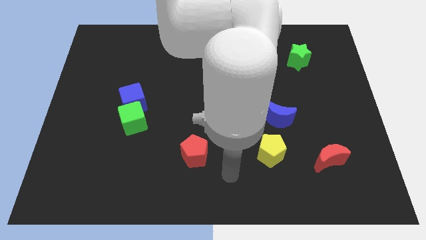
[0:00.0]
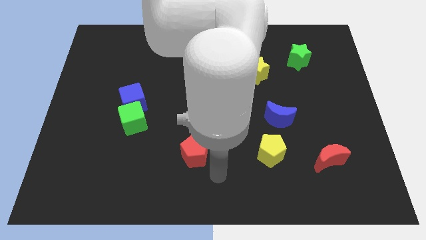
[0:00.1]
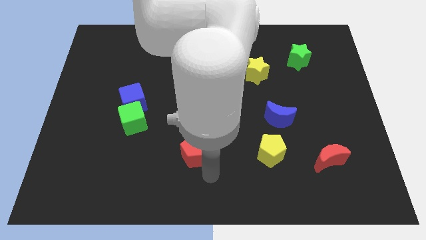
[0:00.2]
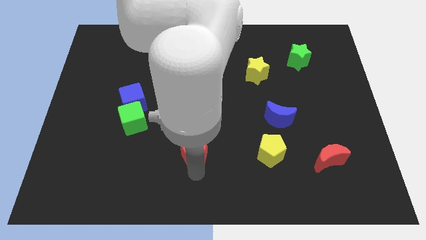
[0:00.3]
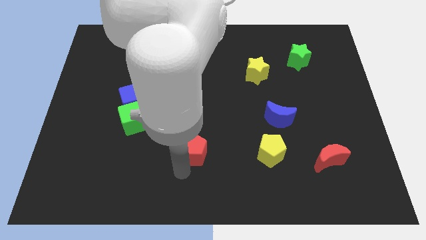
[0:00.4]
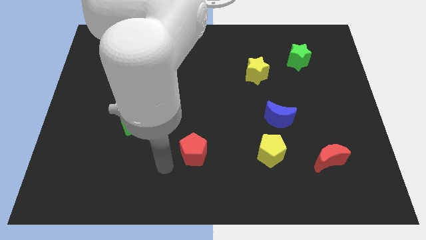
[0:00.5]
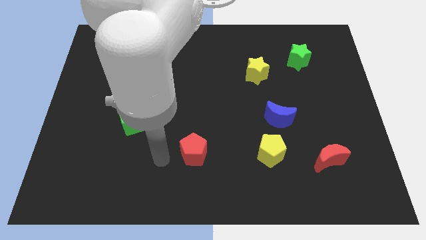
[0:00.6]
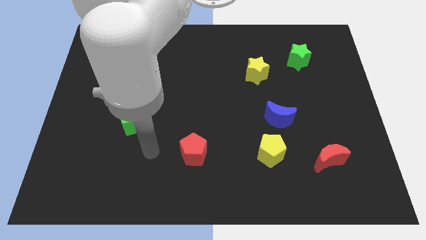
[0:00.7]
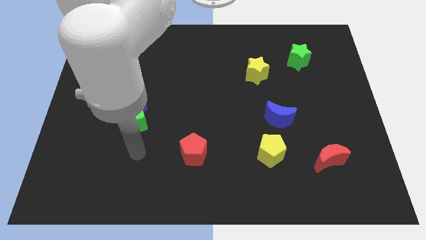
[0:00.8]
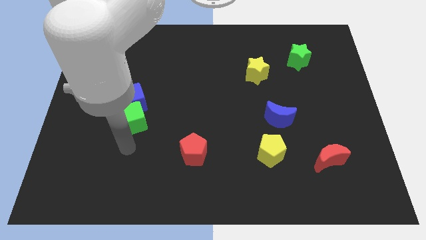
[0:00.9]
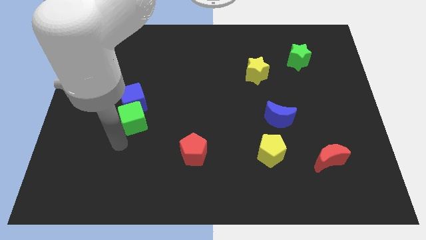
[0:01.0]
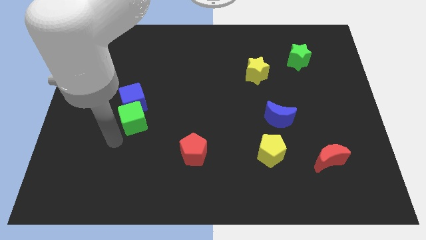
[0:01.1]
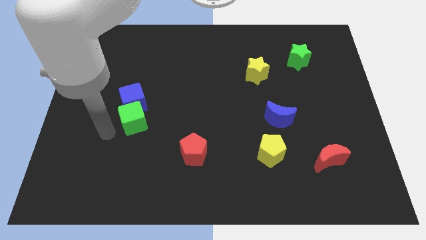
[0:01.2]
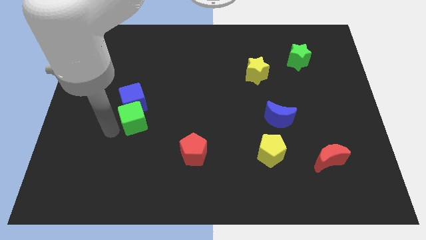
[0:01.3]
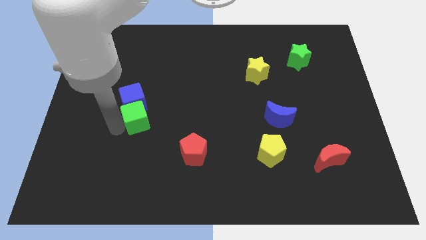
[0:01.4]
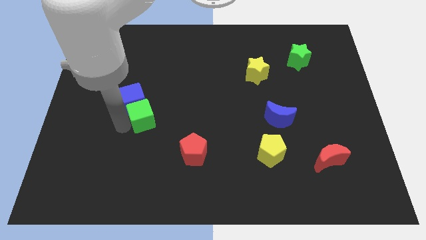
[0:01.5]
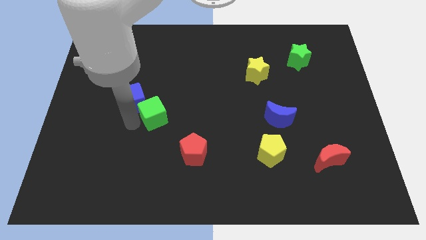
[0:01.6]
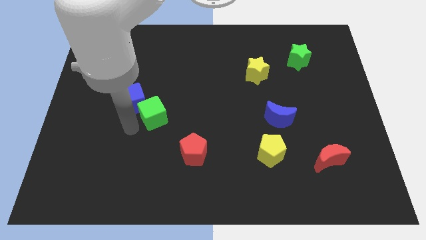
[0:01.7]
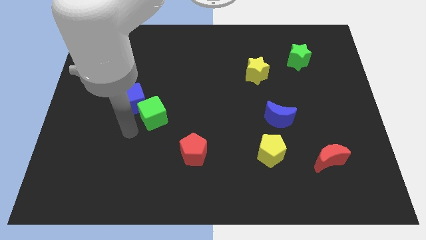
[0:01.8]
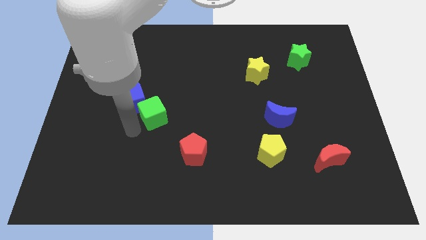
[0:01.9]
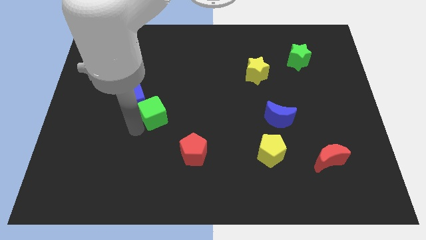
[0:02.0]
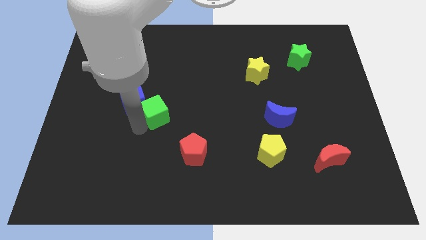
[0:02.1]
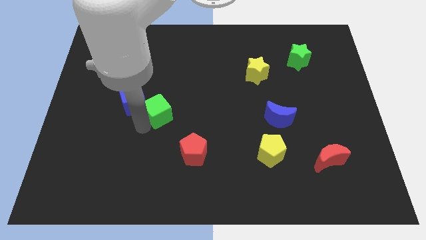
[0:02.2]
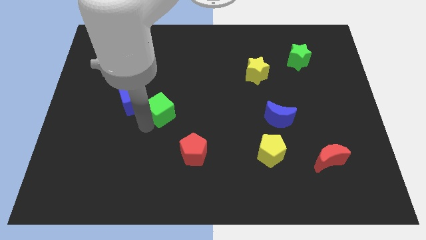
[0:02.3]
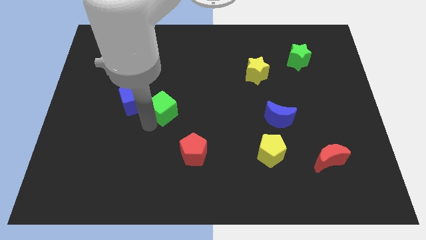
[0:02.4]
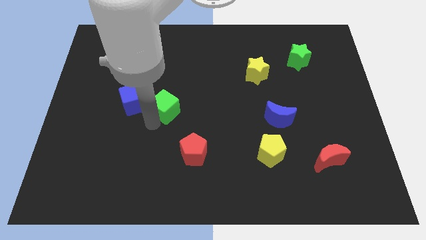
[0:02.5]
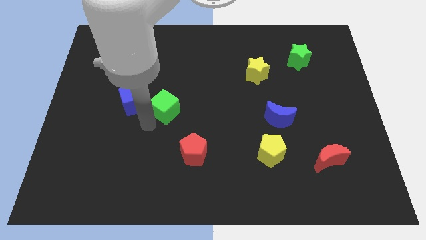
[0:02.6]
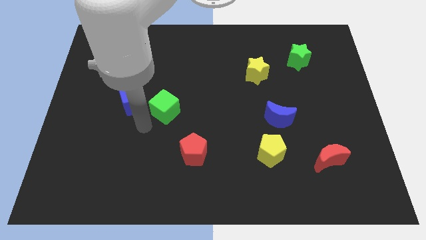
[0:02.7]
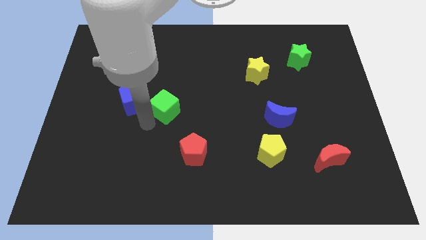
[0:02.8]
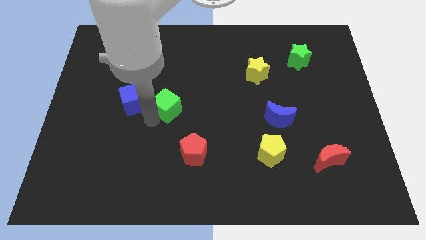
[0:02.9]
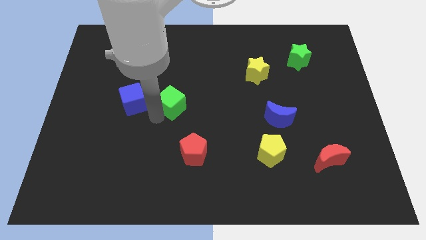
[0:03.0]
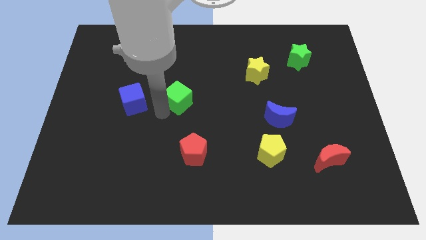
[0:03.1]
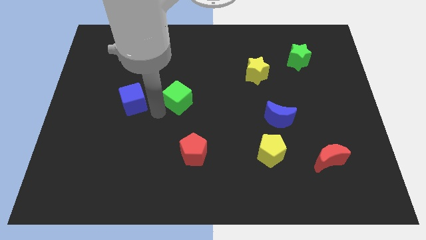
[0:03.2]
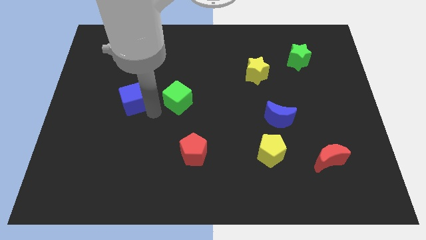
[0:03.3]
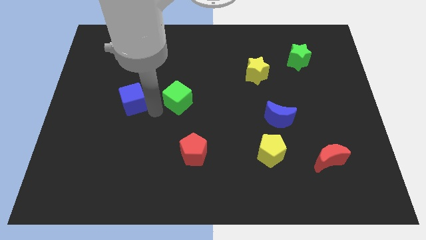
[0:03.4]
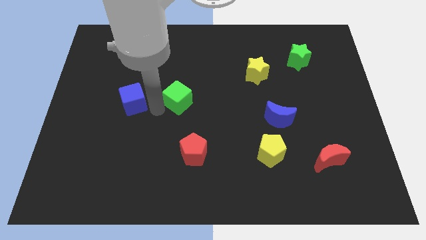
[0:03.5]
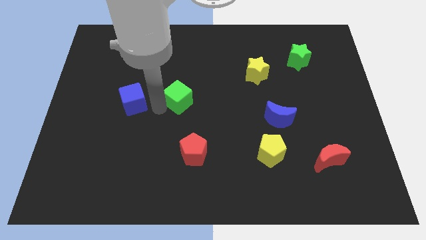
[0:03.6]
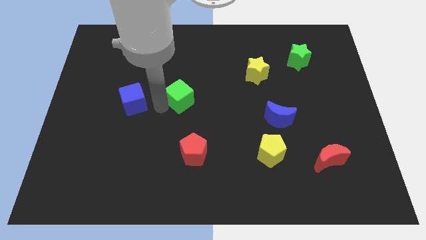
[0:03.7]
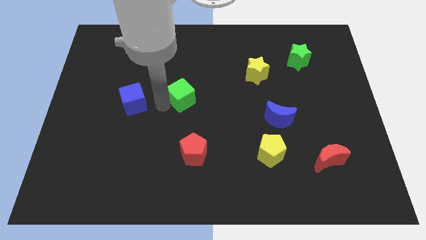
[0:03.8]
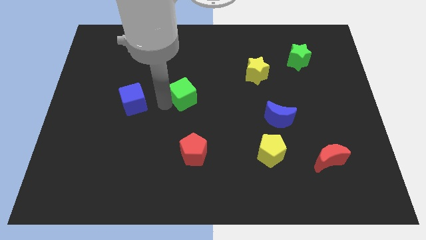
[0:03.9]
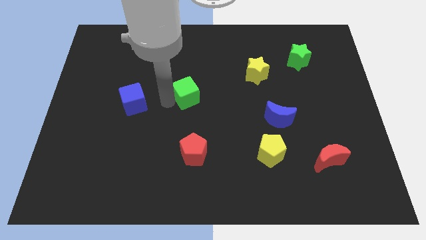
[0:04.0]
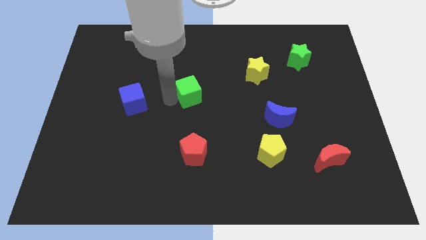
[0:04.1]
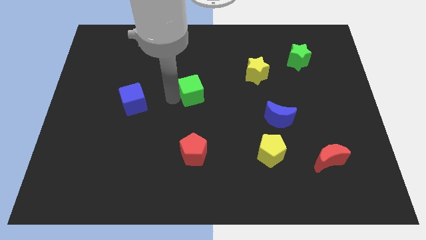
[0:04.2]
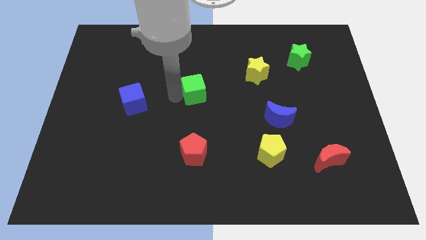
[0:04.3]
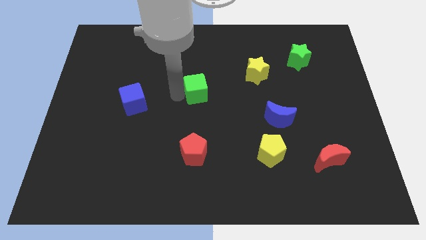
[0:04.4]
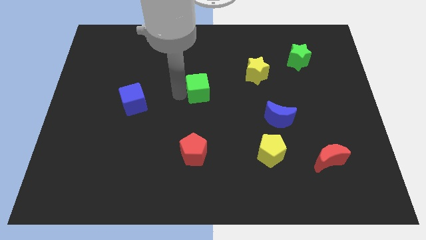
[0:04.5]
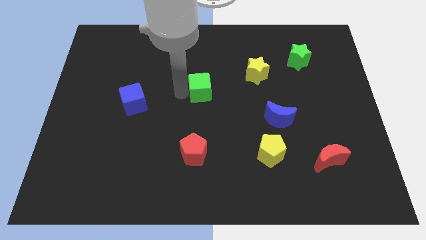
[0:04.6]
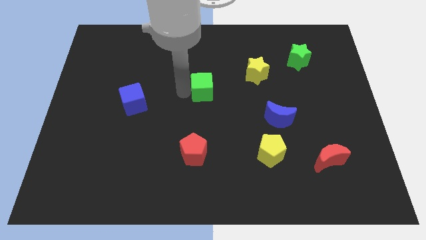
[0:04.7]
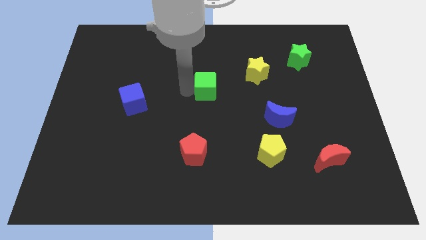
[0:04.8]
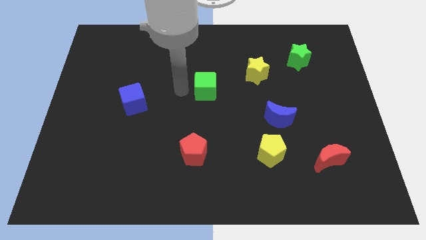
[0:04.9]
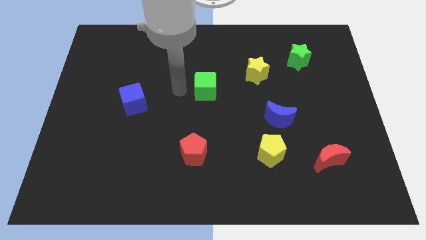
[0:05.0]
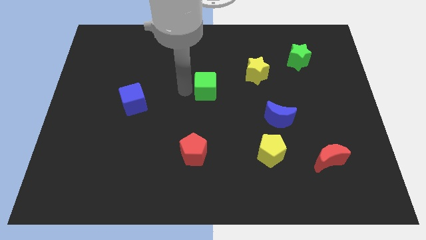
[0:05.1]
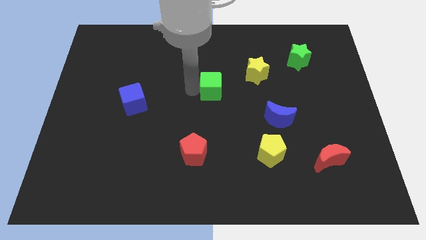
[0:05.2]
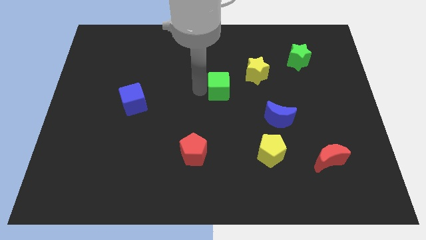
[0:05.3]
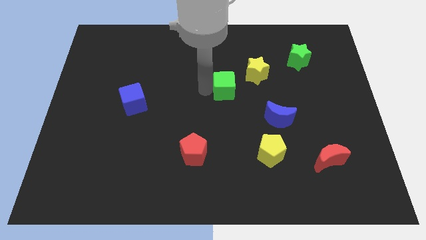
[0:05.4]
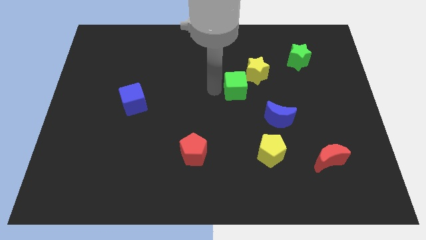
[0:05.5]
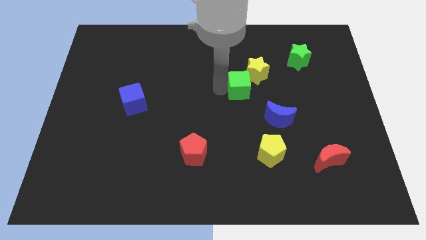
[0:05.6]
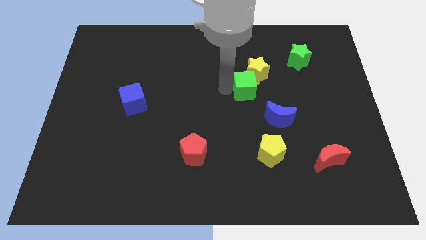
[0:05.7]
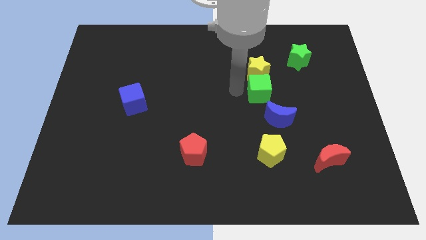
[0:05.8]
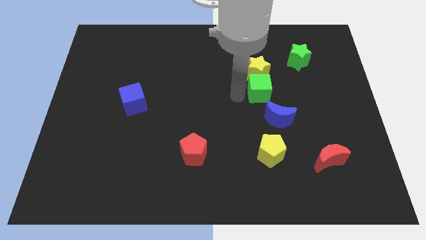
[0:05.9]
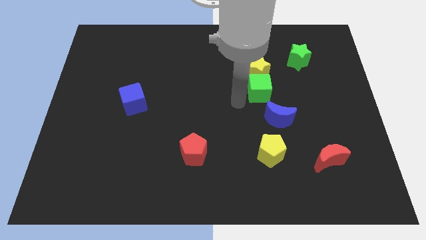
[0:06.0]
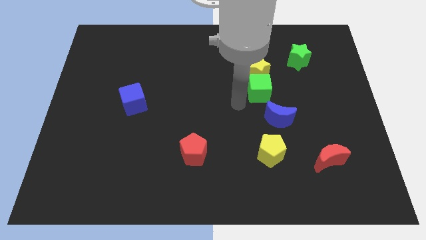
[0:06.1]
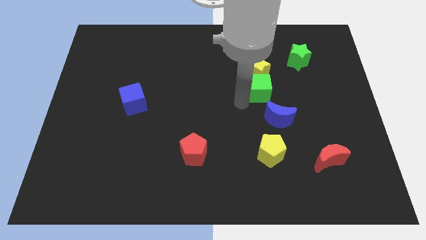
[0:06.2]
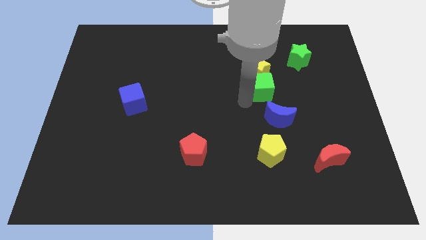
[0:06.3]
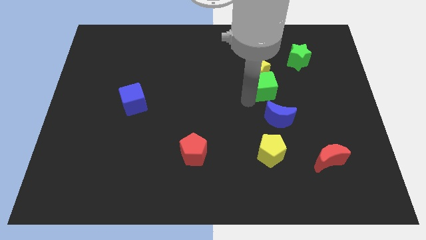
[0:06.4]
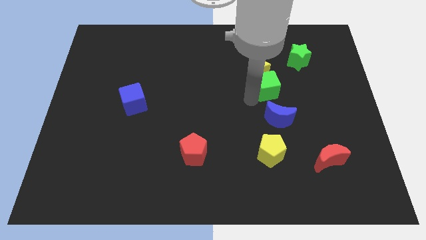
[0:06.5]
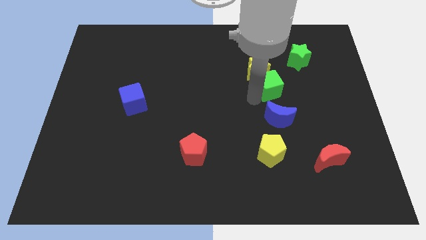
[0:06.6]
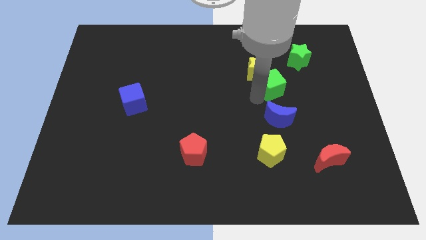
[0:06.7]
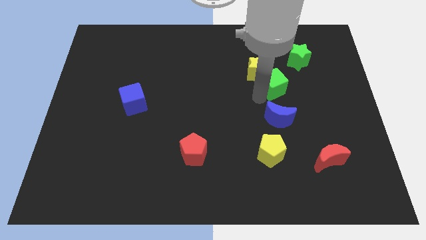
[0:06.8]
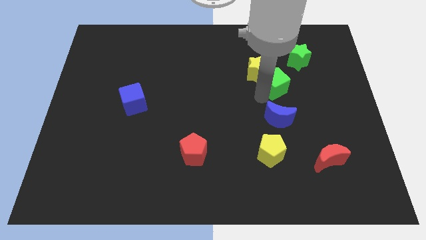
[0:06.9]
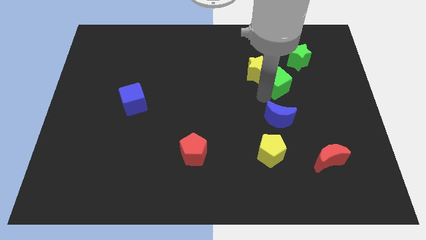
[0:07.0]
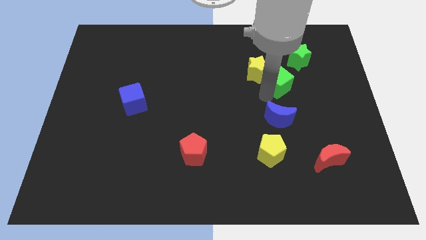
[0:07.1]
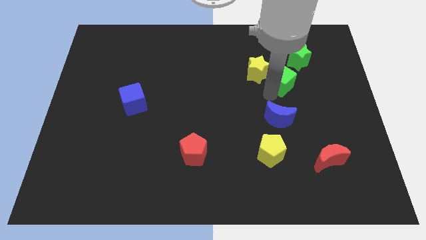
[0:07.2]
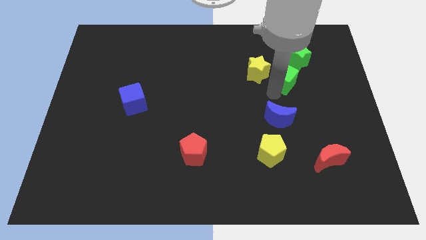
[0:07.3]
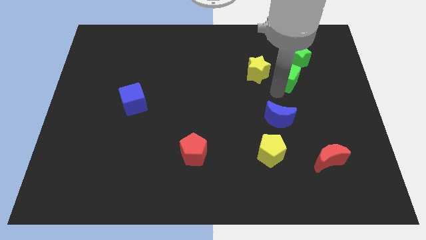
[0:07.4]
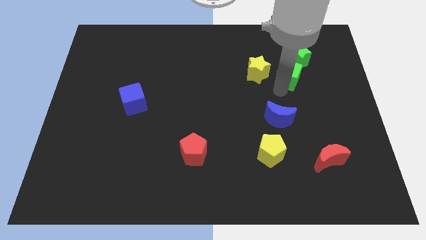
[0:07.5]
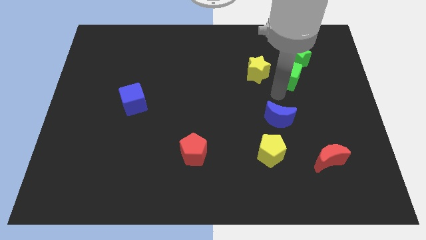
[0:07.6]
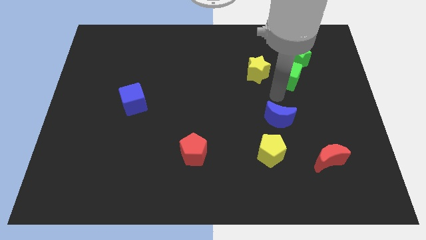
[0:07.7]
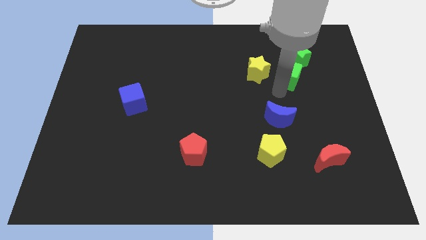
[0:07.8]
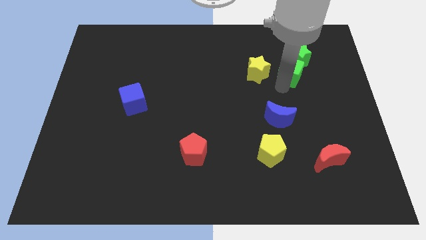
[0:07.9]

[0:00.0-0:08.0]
push the green cube next to the green star
